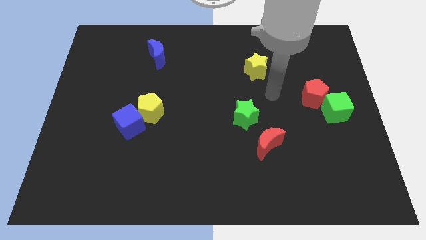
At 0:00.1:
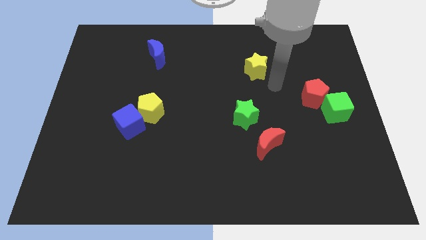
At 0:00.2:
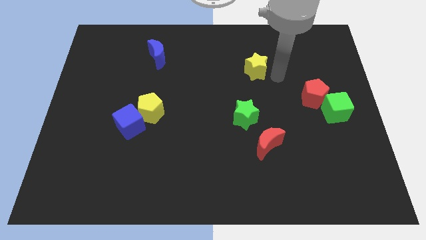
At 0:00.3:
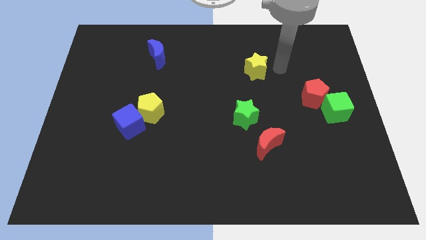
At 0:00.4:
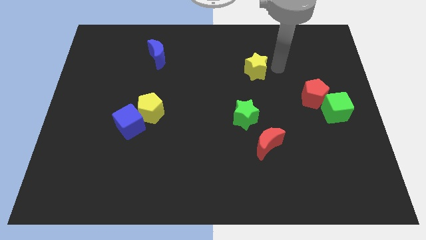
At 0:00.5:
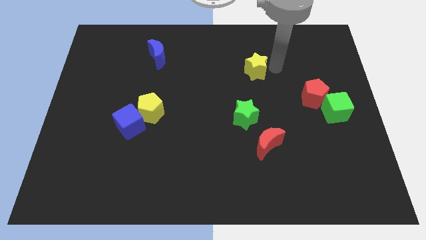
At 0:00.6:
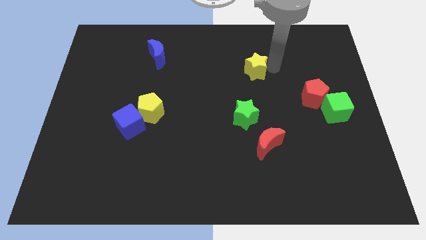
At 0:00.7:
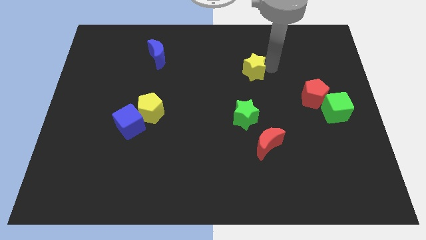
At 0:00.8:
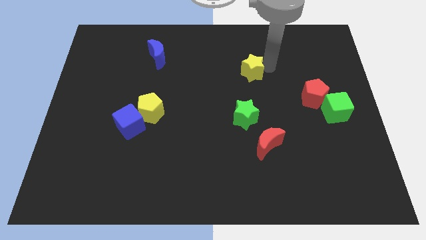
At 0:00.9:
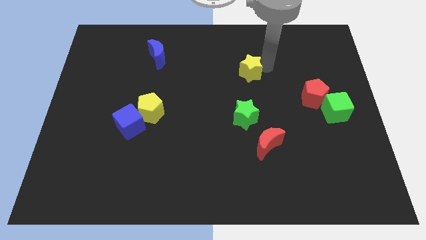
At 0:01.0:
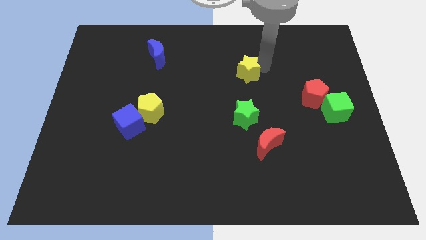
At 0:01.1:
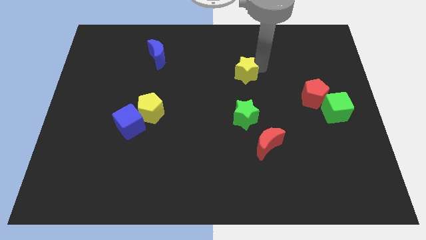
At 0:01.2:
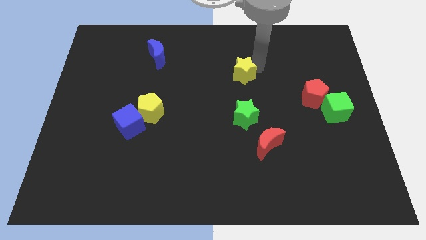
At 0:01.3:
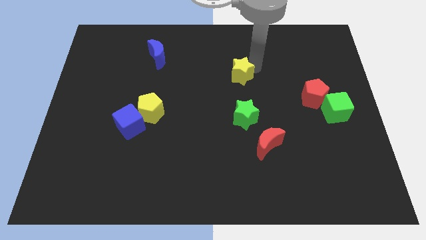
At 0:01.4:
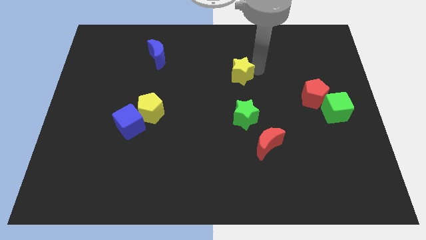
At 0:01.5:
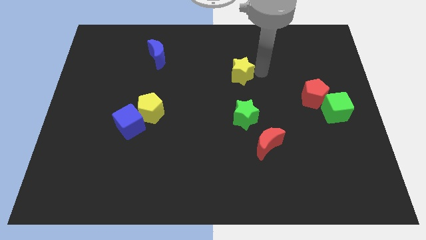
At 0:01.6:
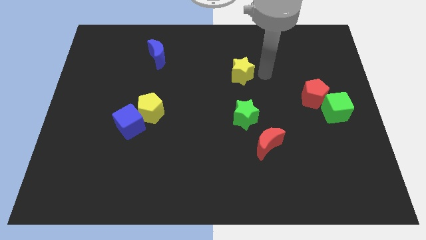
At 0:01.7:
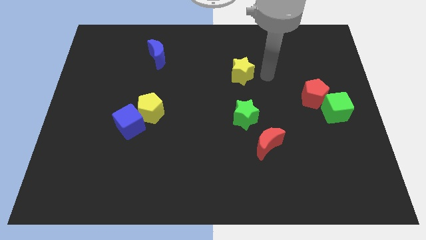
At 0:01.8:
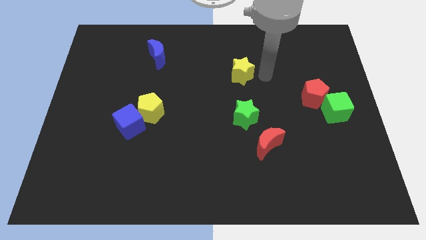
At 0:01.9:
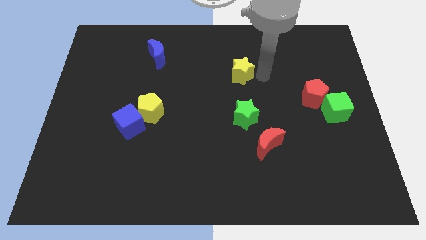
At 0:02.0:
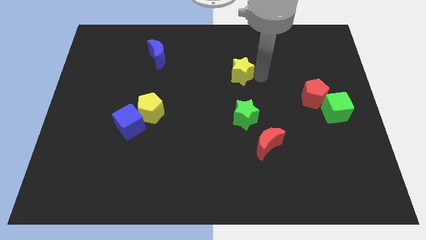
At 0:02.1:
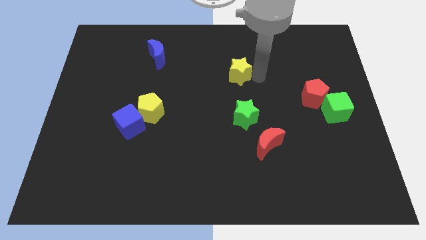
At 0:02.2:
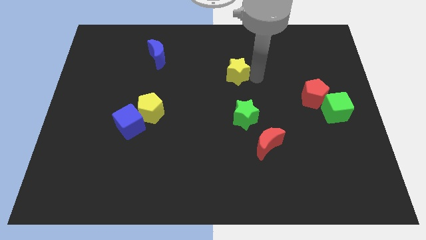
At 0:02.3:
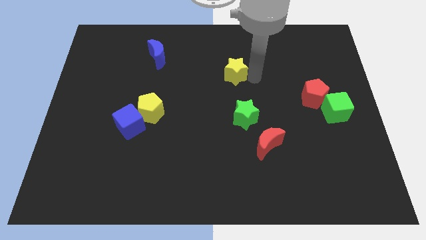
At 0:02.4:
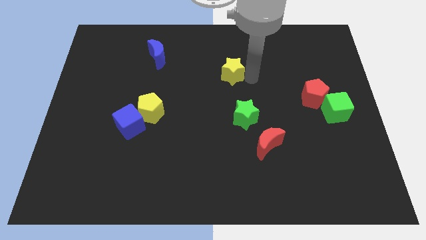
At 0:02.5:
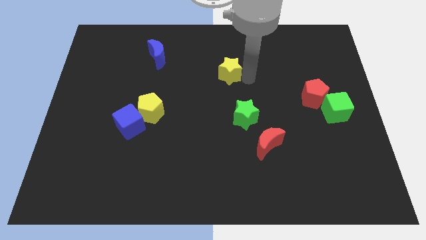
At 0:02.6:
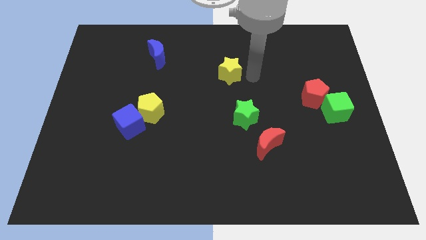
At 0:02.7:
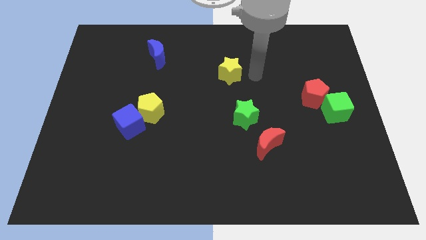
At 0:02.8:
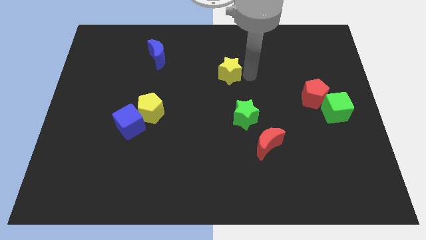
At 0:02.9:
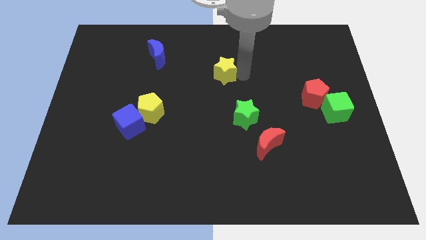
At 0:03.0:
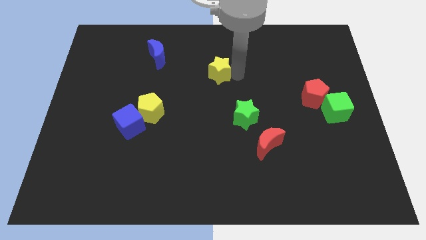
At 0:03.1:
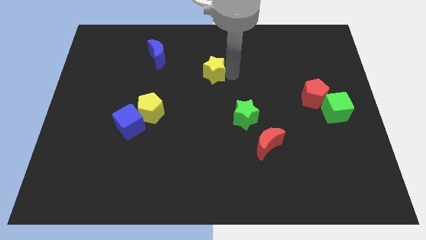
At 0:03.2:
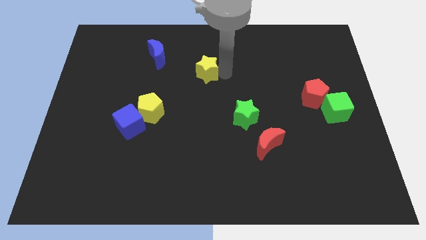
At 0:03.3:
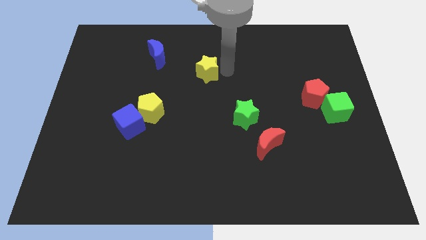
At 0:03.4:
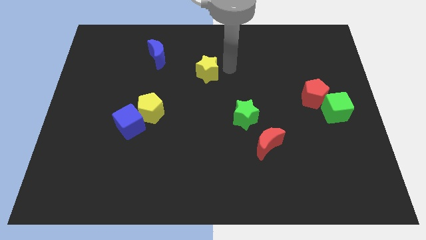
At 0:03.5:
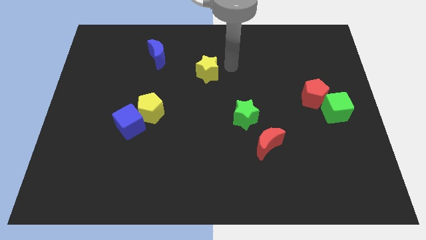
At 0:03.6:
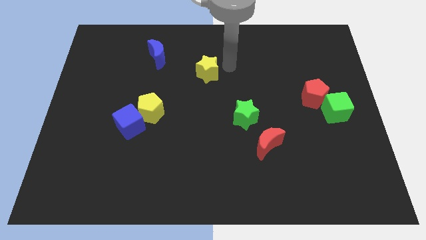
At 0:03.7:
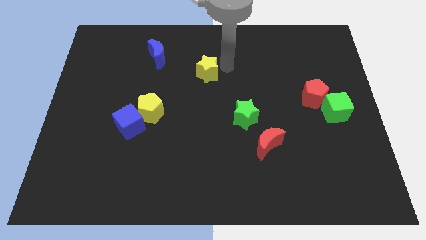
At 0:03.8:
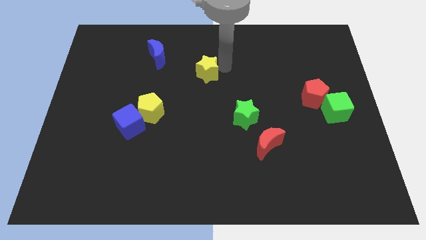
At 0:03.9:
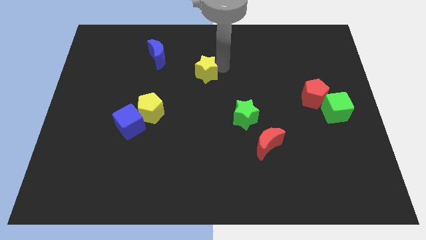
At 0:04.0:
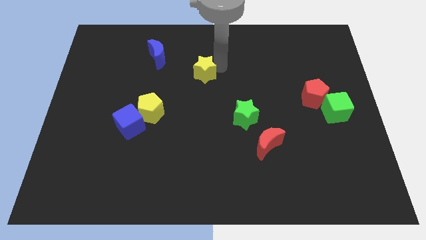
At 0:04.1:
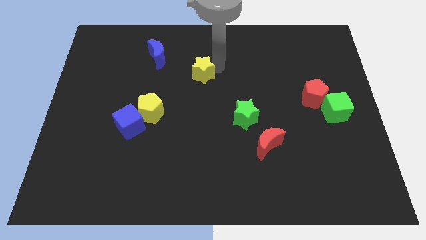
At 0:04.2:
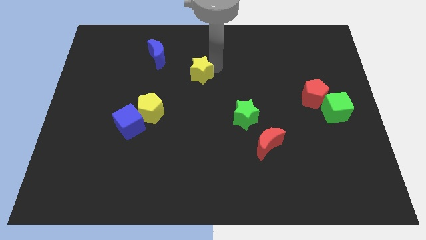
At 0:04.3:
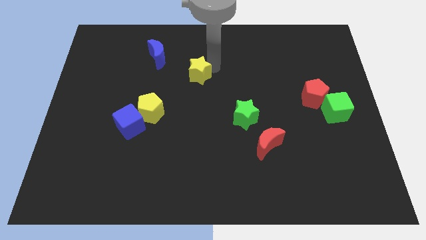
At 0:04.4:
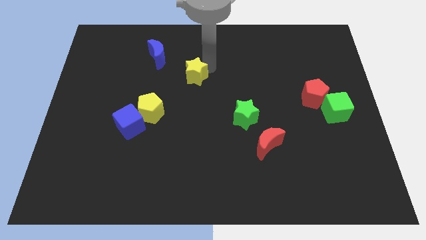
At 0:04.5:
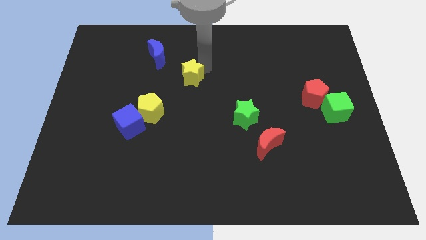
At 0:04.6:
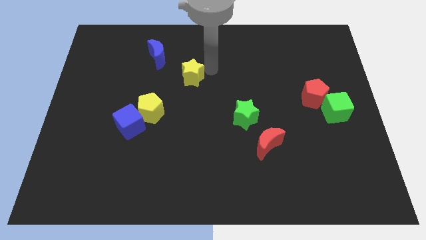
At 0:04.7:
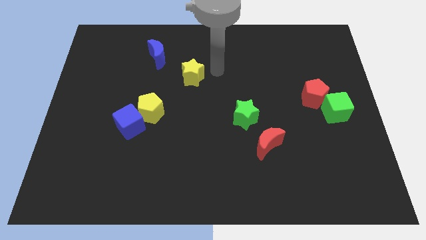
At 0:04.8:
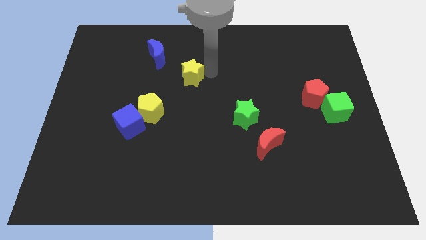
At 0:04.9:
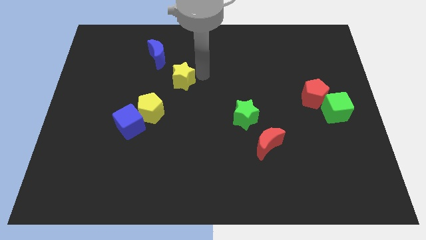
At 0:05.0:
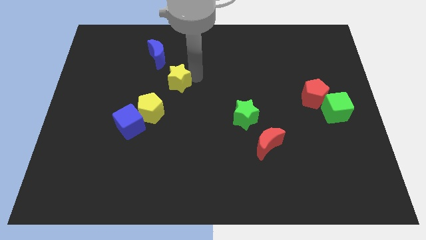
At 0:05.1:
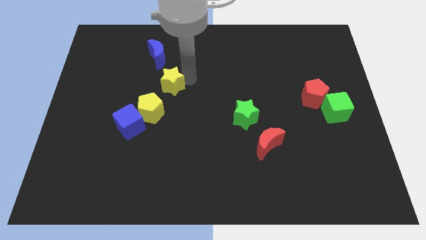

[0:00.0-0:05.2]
slide the yellow star to the bottom of the blue moon

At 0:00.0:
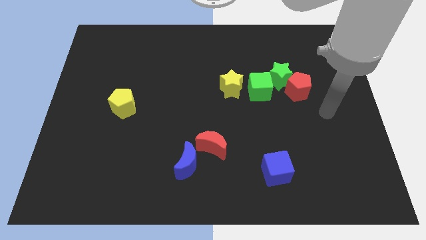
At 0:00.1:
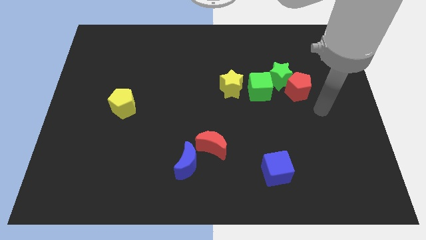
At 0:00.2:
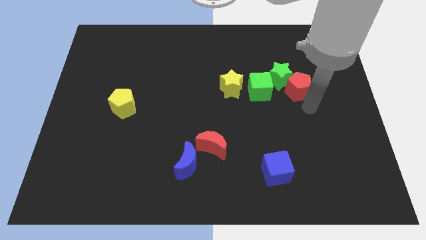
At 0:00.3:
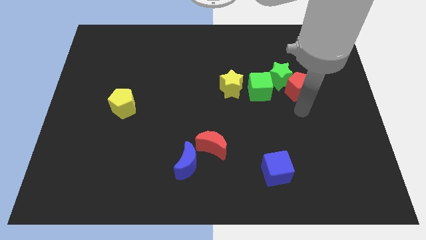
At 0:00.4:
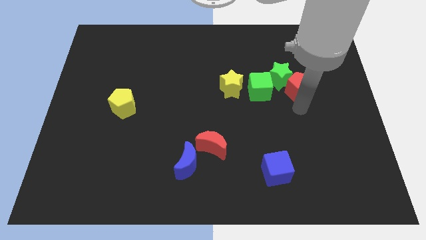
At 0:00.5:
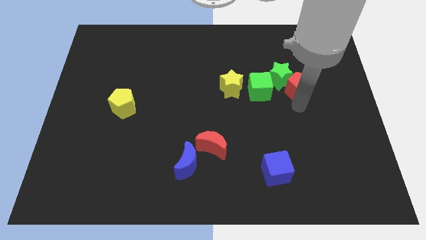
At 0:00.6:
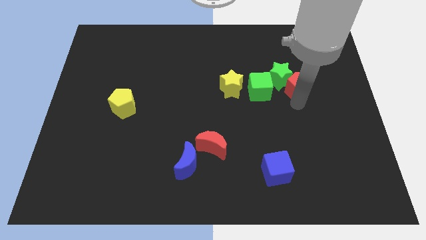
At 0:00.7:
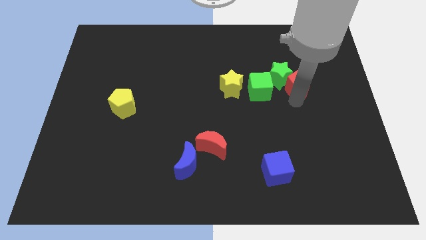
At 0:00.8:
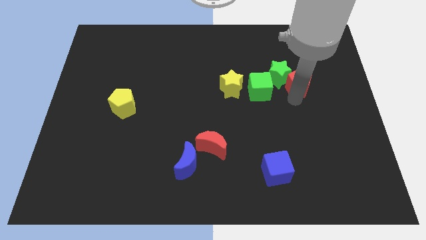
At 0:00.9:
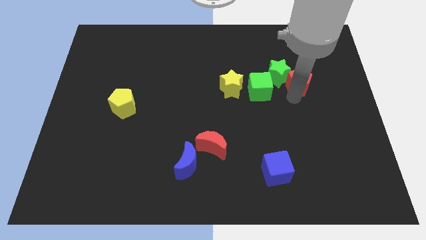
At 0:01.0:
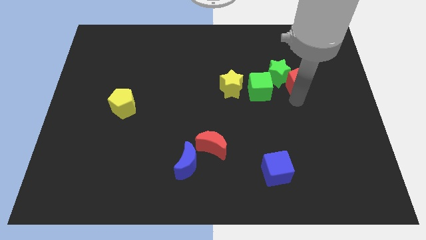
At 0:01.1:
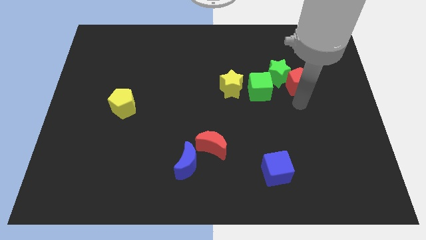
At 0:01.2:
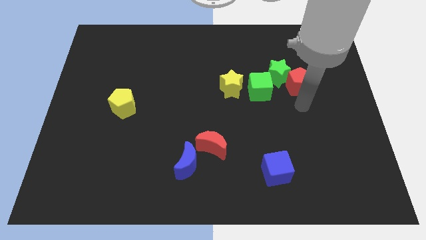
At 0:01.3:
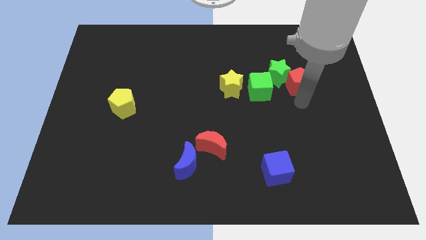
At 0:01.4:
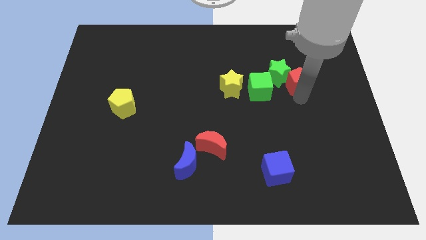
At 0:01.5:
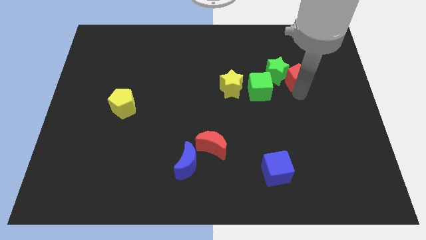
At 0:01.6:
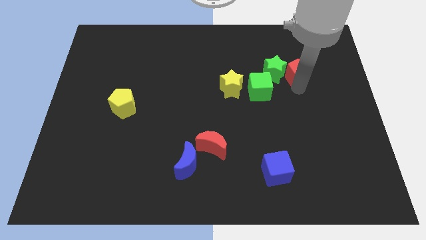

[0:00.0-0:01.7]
push the red pentagon to the top right side of the green star
